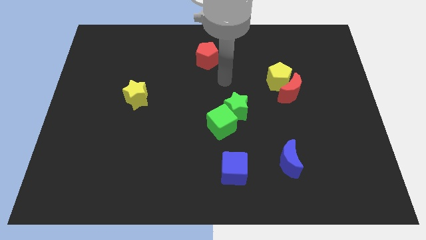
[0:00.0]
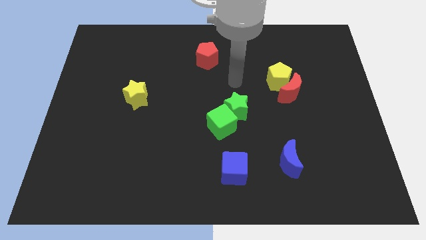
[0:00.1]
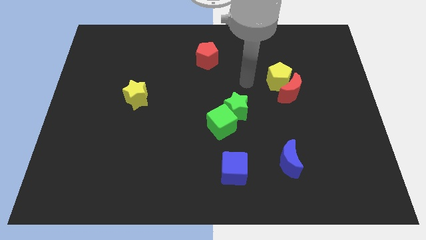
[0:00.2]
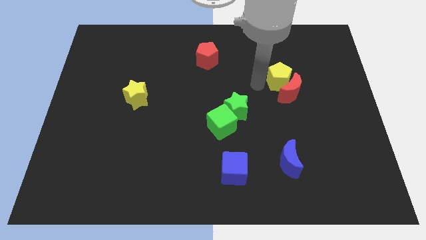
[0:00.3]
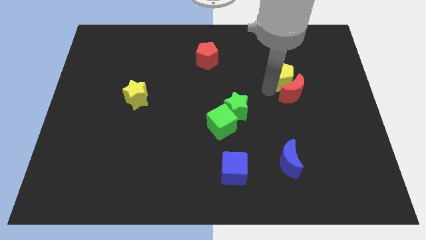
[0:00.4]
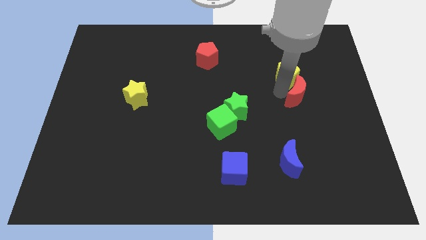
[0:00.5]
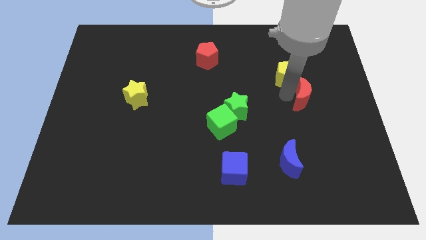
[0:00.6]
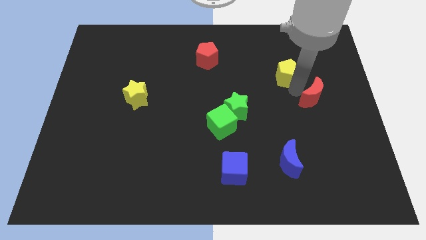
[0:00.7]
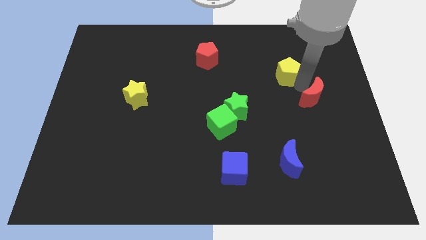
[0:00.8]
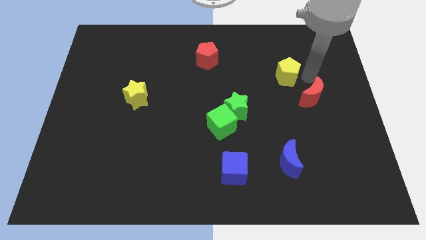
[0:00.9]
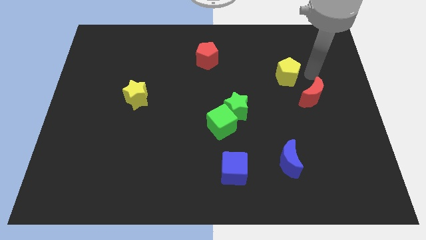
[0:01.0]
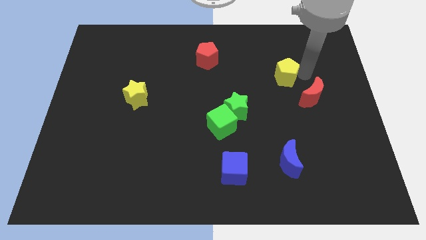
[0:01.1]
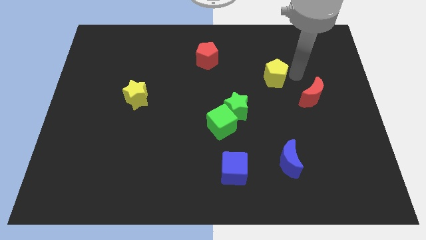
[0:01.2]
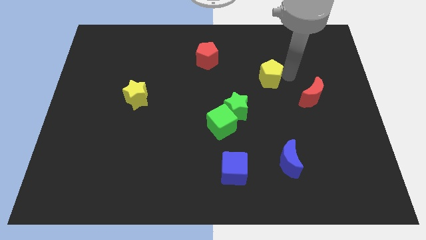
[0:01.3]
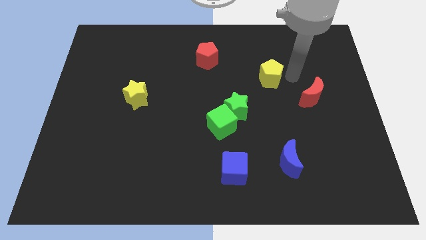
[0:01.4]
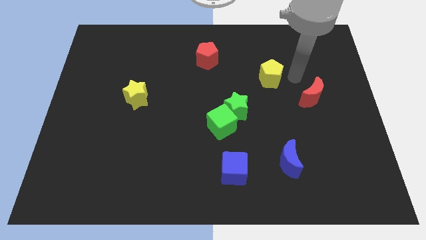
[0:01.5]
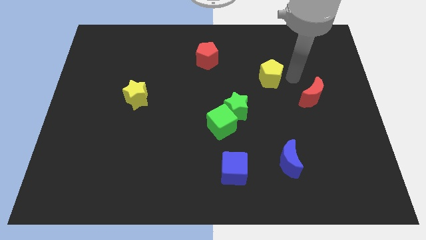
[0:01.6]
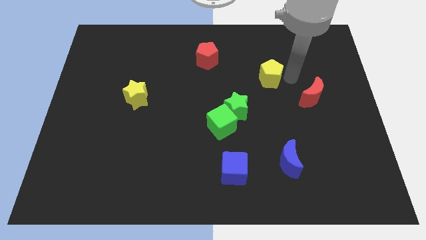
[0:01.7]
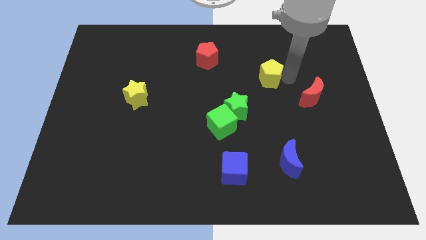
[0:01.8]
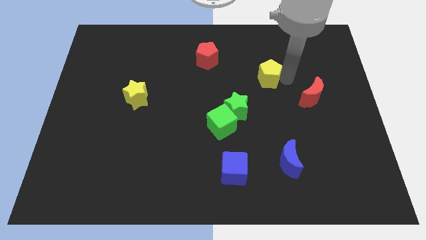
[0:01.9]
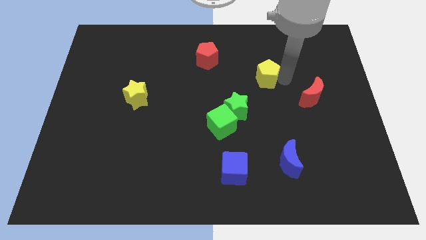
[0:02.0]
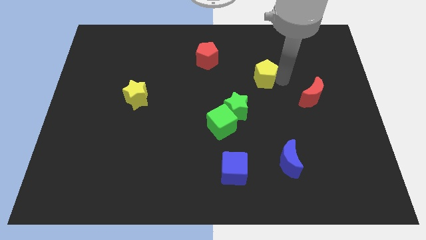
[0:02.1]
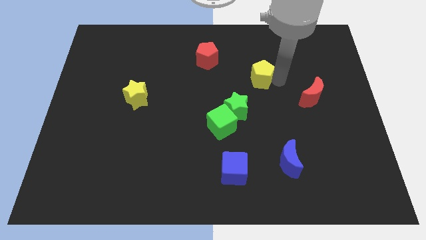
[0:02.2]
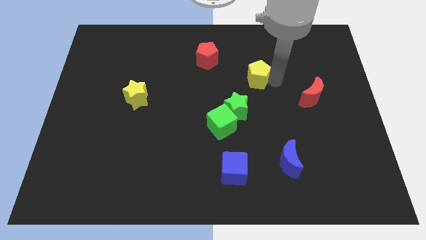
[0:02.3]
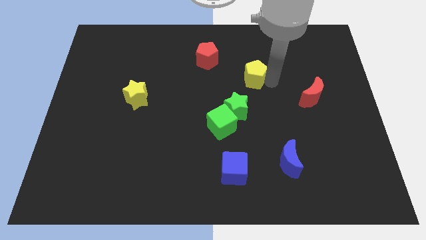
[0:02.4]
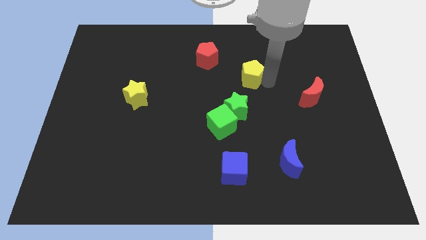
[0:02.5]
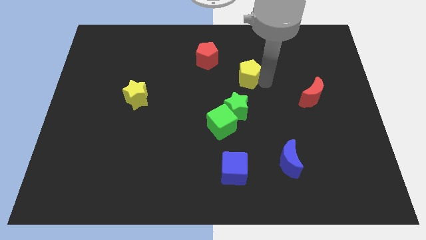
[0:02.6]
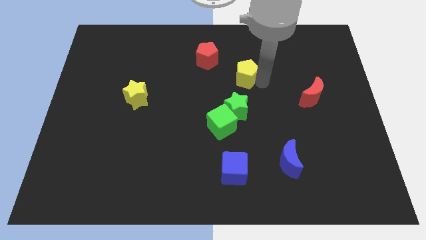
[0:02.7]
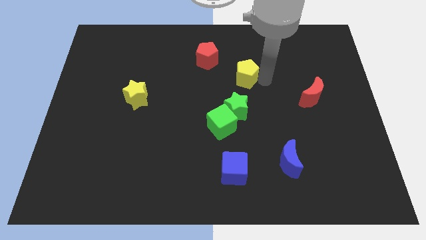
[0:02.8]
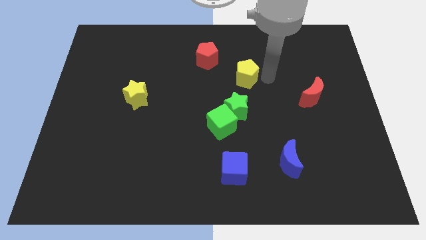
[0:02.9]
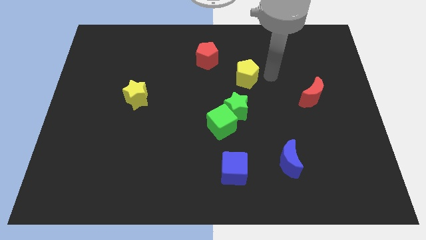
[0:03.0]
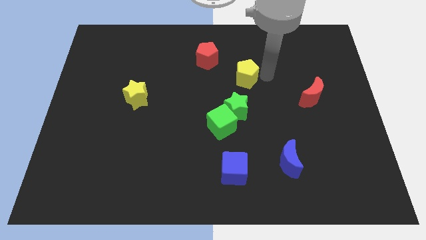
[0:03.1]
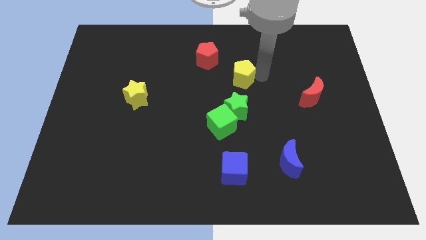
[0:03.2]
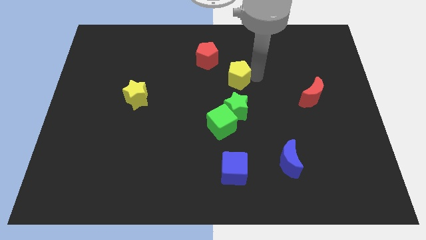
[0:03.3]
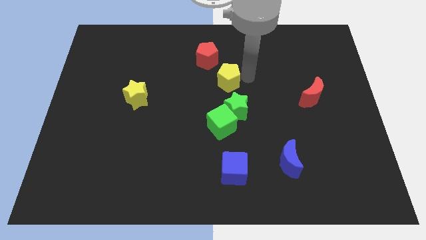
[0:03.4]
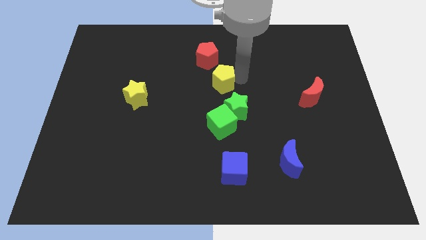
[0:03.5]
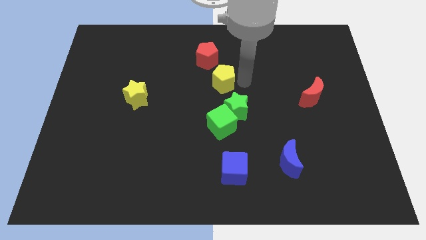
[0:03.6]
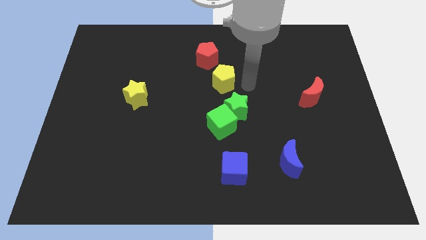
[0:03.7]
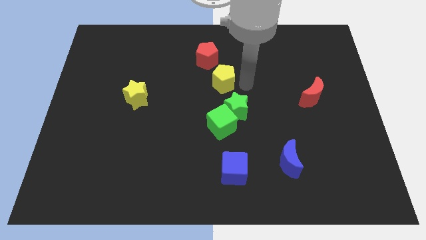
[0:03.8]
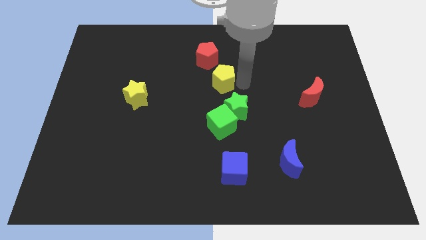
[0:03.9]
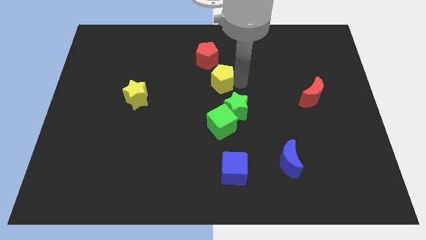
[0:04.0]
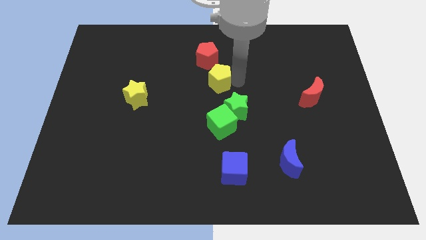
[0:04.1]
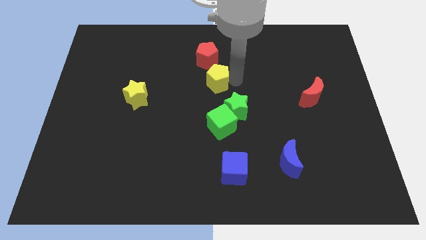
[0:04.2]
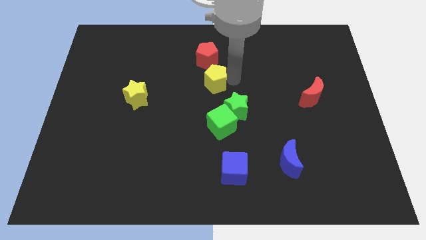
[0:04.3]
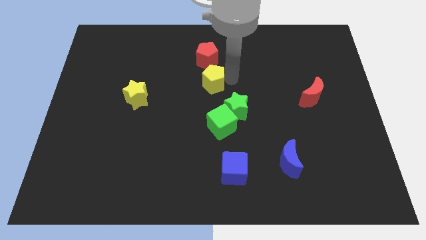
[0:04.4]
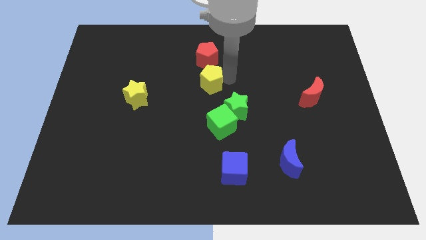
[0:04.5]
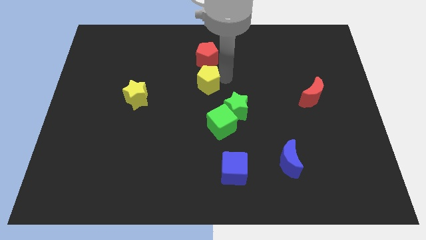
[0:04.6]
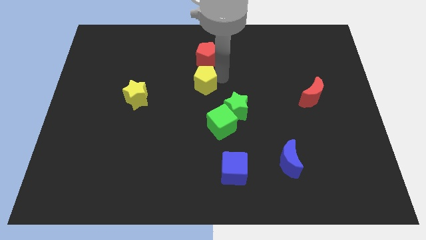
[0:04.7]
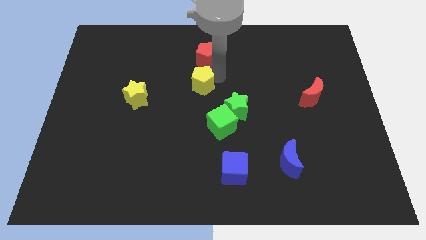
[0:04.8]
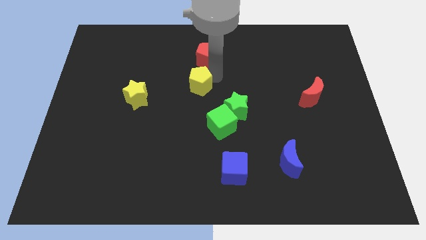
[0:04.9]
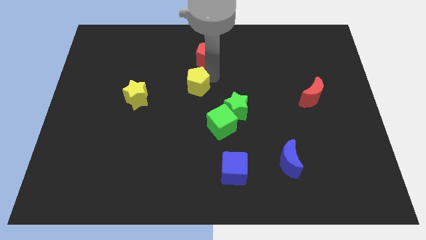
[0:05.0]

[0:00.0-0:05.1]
move the yellow pentagon to the left

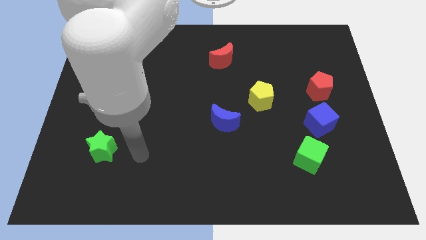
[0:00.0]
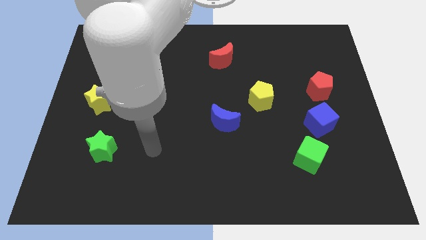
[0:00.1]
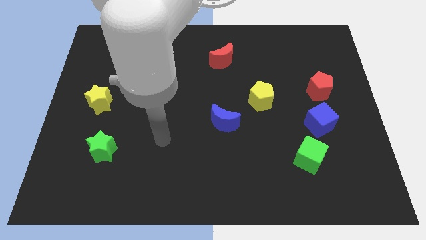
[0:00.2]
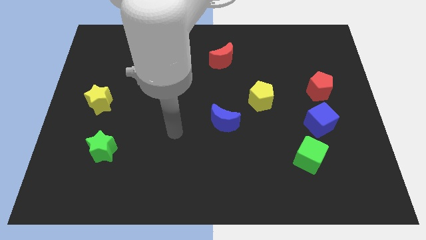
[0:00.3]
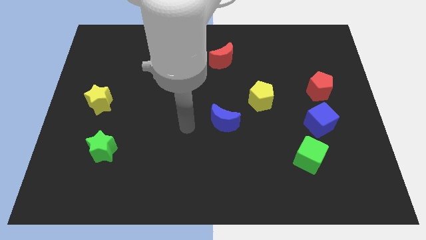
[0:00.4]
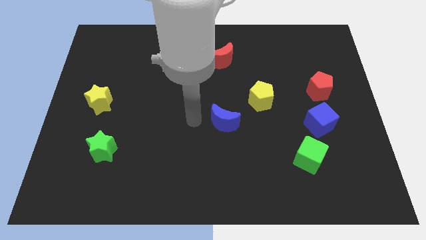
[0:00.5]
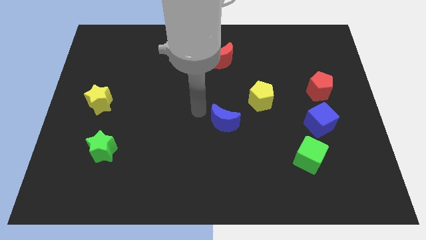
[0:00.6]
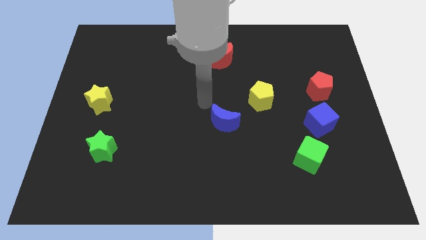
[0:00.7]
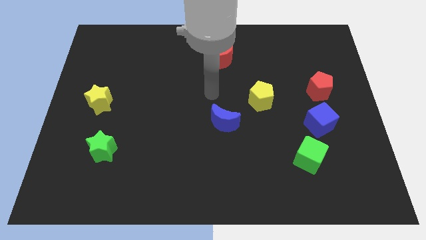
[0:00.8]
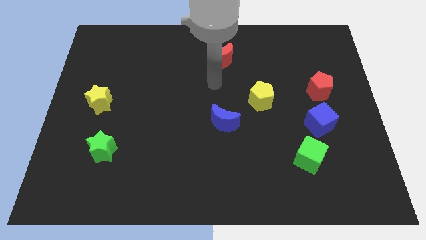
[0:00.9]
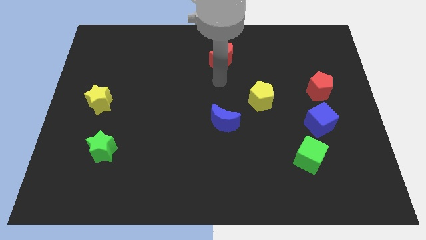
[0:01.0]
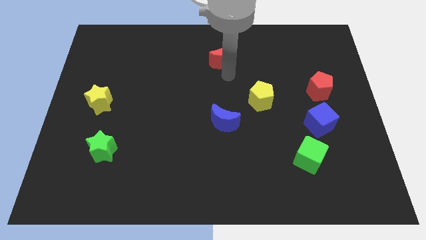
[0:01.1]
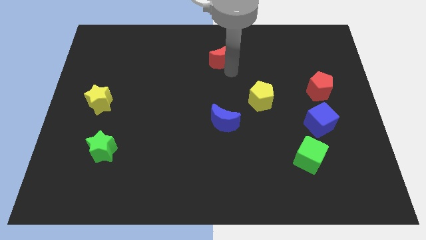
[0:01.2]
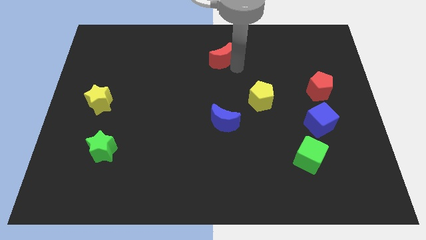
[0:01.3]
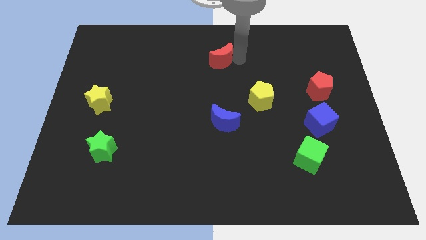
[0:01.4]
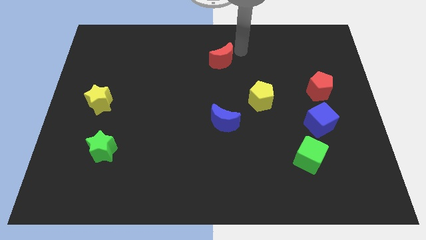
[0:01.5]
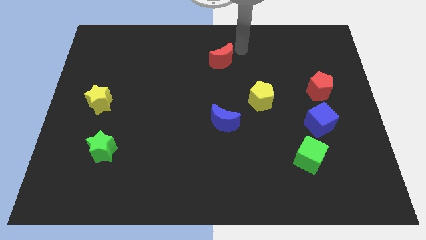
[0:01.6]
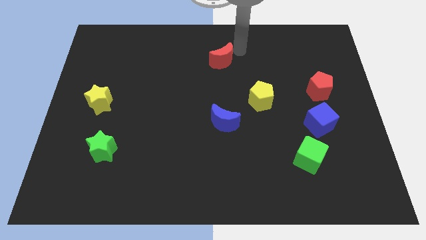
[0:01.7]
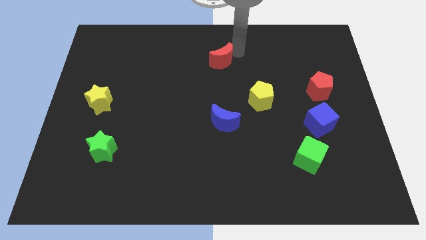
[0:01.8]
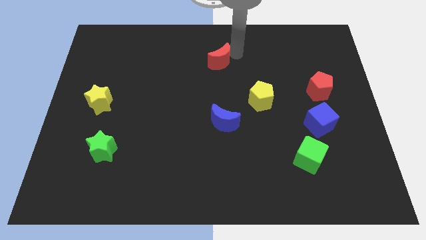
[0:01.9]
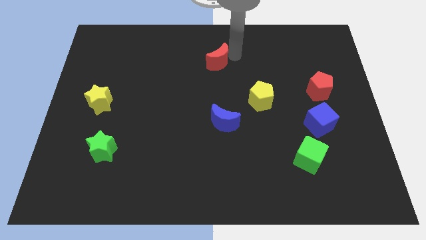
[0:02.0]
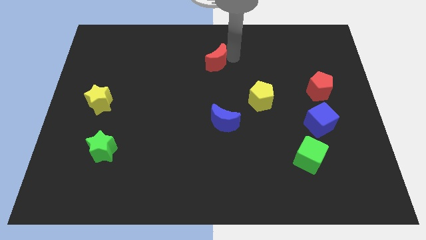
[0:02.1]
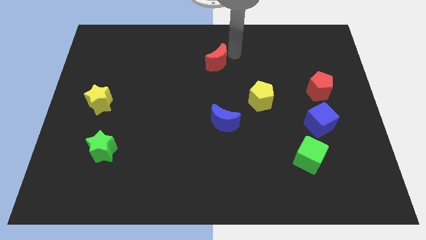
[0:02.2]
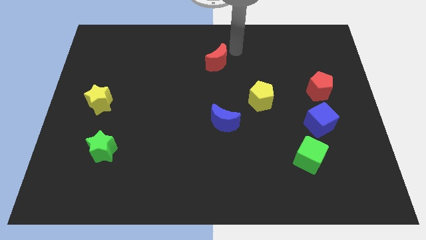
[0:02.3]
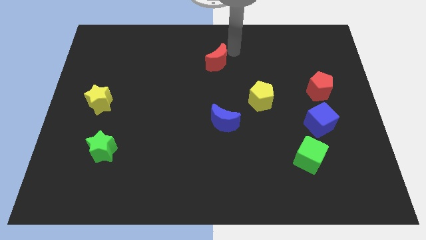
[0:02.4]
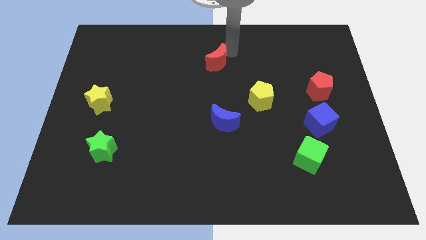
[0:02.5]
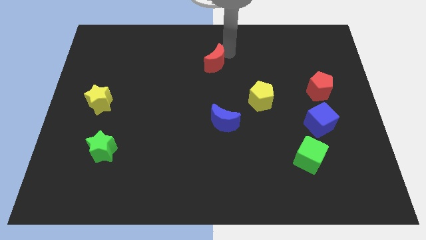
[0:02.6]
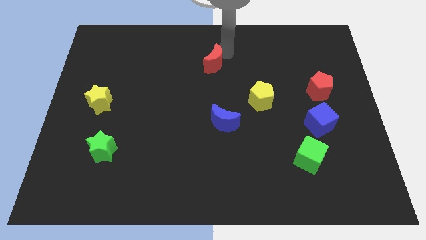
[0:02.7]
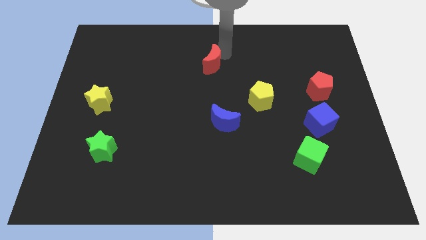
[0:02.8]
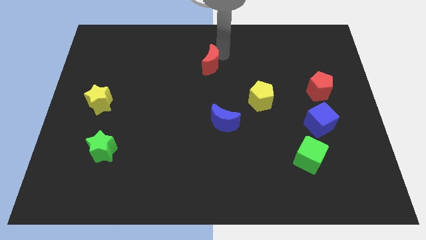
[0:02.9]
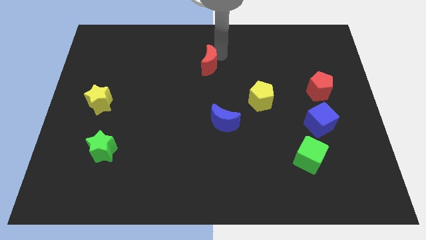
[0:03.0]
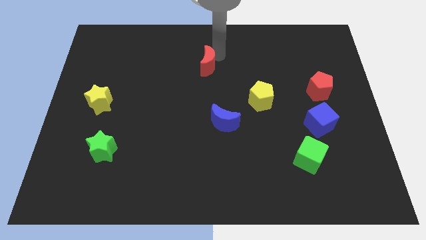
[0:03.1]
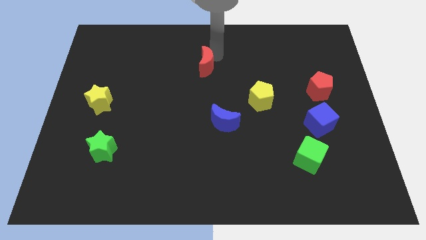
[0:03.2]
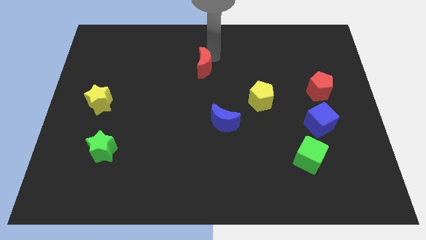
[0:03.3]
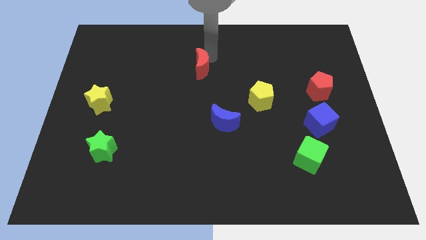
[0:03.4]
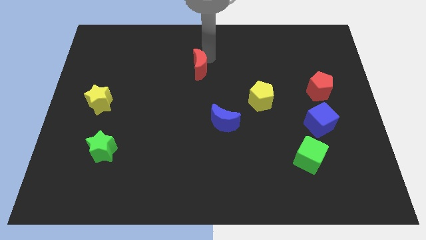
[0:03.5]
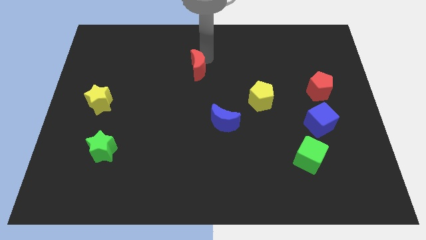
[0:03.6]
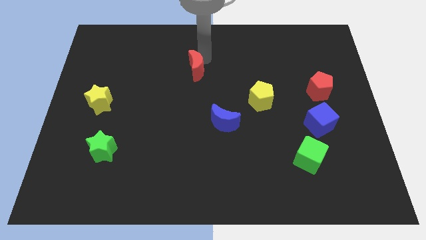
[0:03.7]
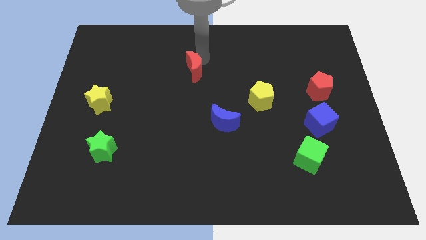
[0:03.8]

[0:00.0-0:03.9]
move the red moon slightly downwards and then to the left
